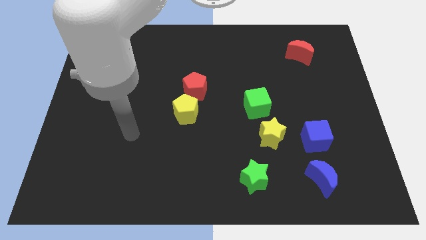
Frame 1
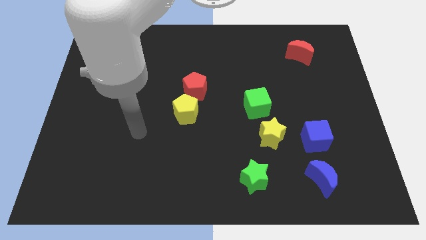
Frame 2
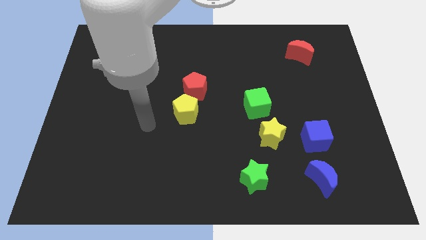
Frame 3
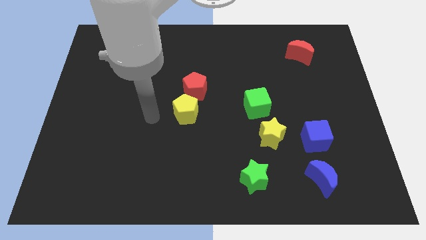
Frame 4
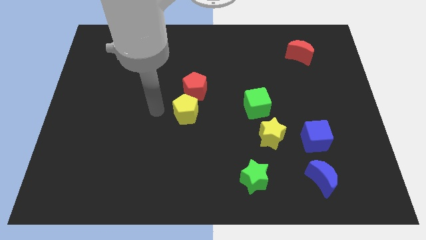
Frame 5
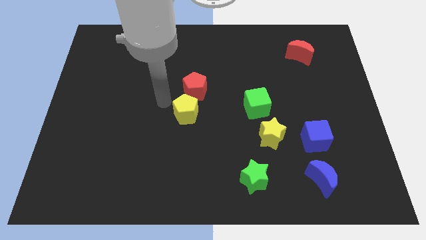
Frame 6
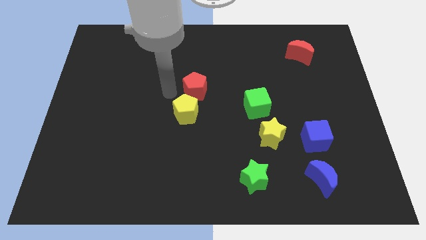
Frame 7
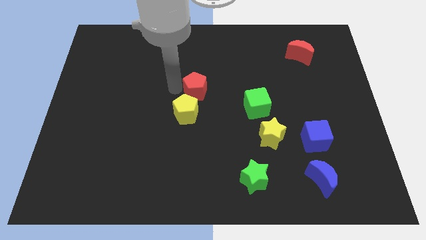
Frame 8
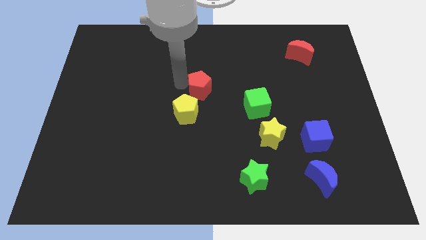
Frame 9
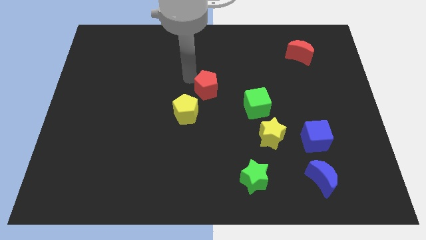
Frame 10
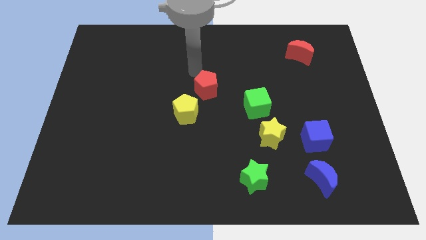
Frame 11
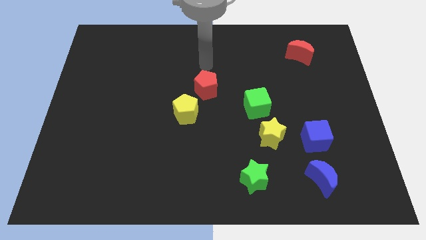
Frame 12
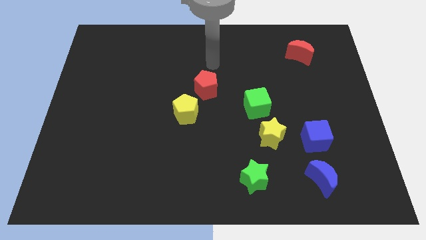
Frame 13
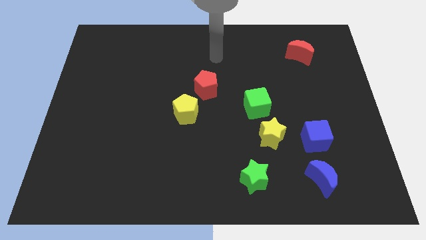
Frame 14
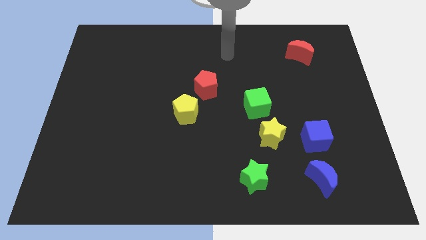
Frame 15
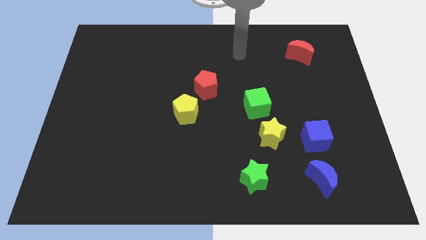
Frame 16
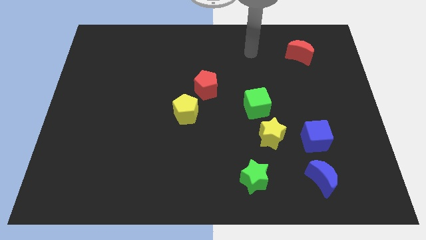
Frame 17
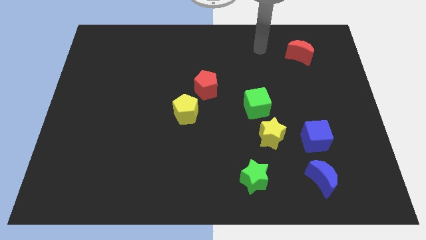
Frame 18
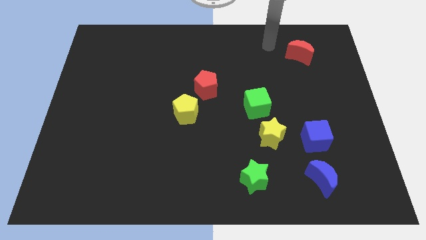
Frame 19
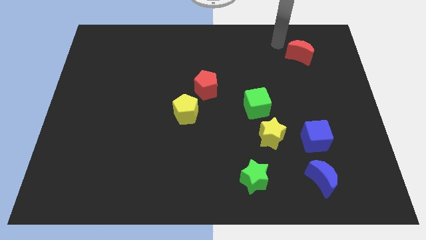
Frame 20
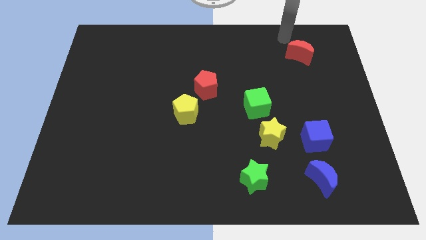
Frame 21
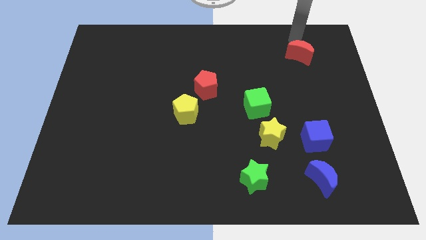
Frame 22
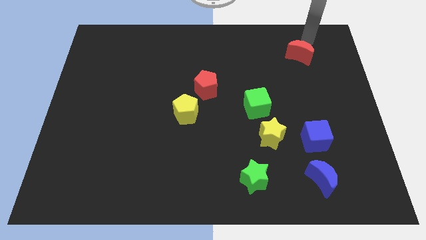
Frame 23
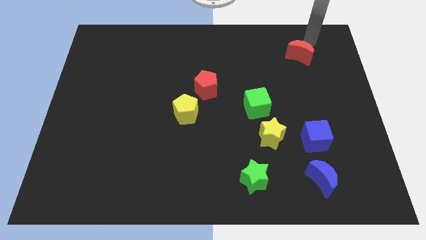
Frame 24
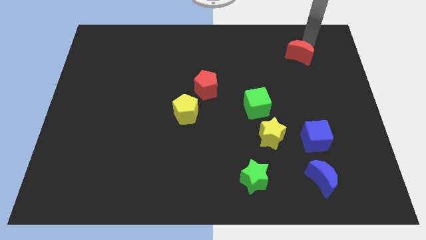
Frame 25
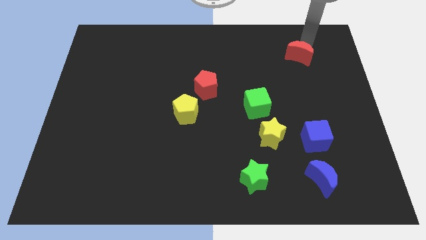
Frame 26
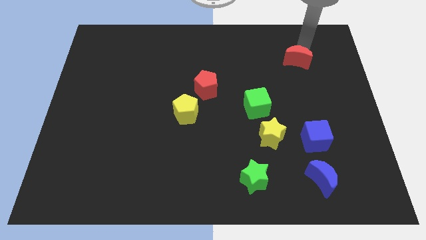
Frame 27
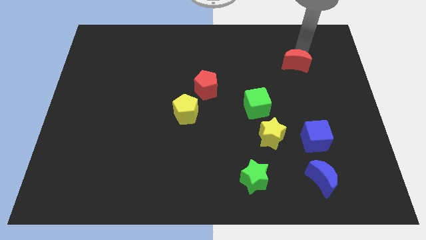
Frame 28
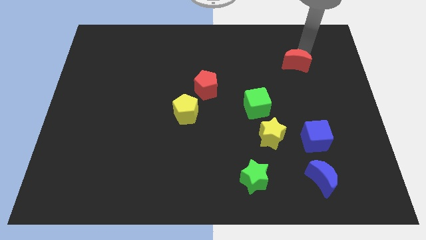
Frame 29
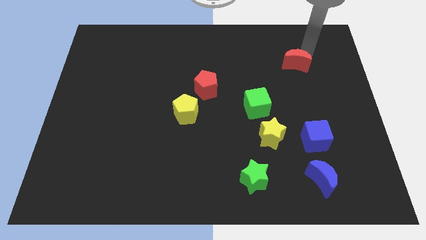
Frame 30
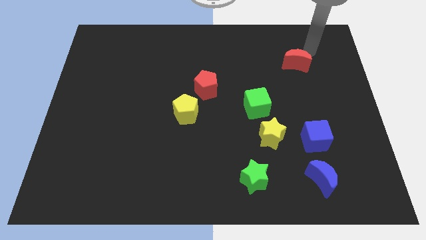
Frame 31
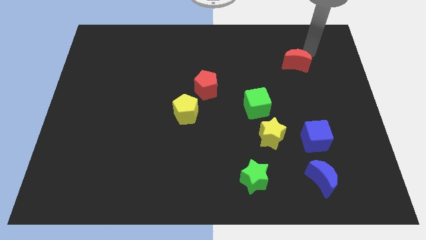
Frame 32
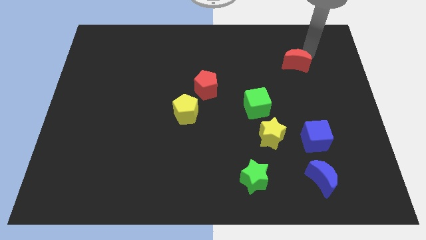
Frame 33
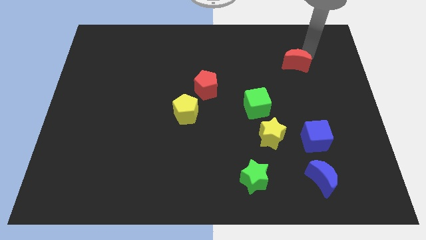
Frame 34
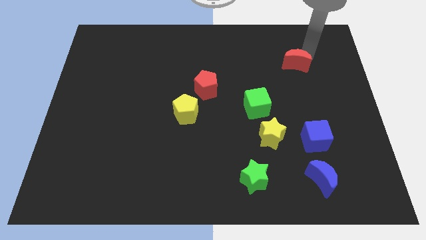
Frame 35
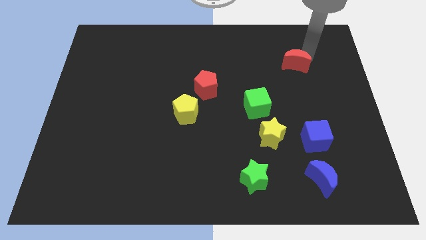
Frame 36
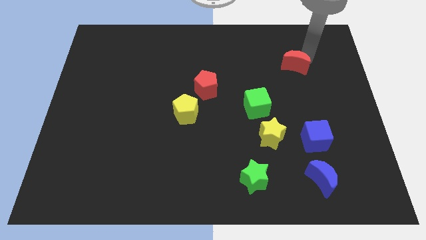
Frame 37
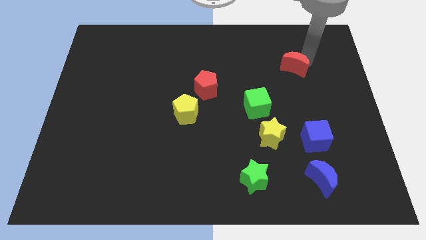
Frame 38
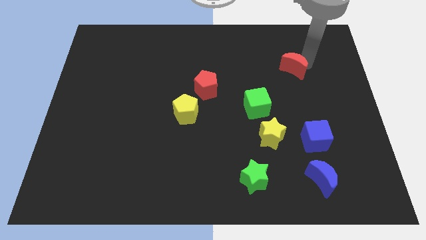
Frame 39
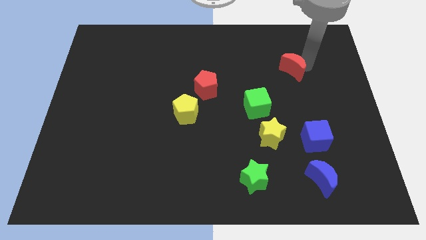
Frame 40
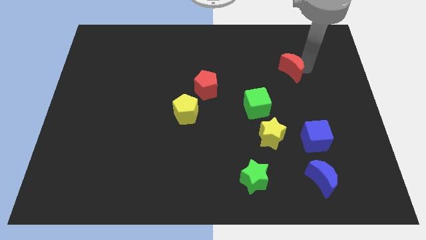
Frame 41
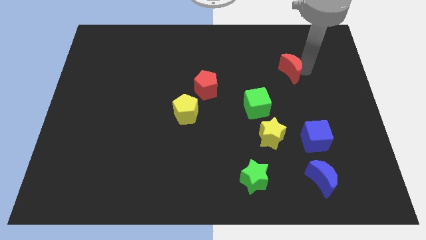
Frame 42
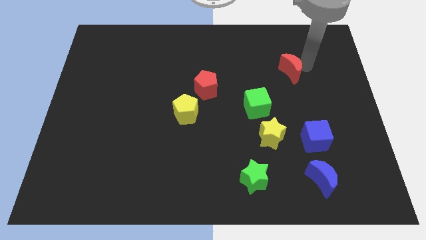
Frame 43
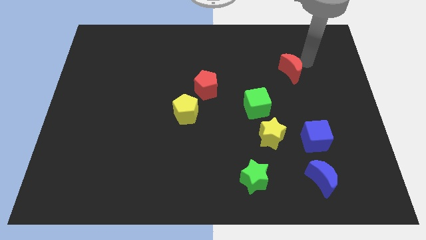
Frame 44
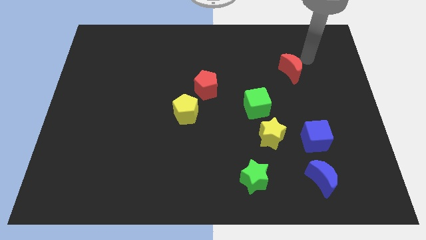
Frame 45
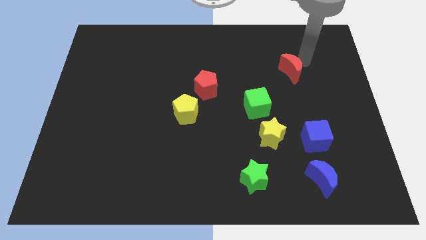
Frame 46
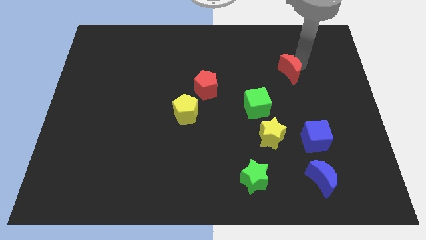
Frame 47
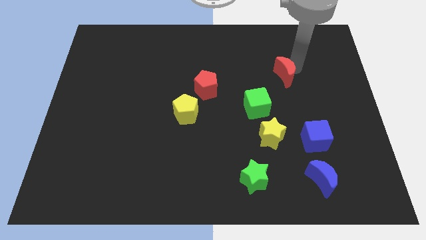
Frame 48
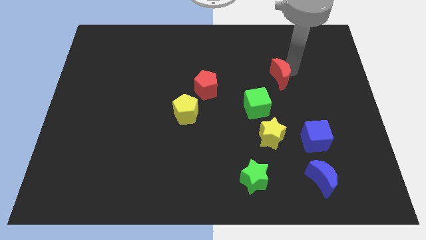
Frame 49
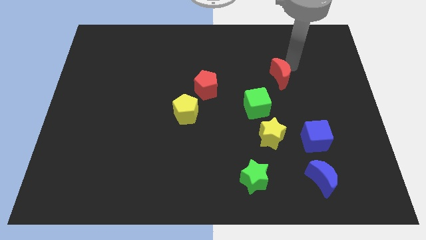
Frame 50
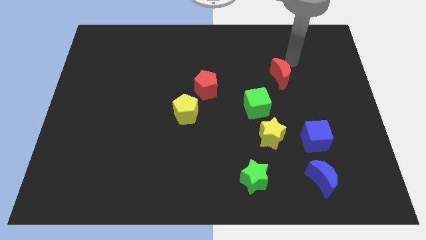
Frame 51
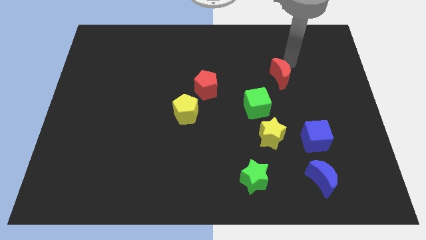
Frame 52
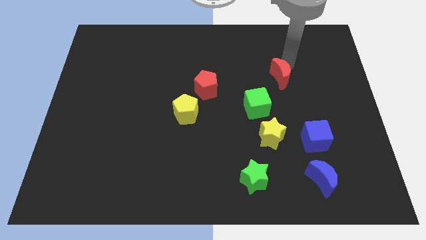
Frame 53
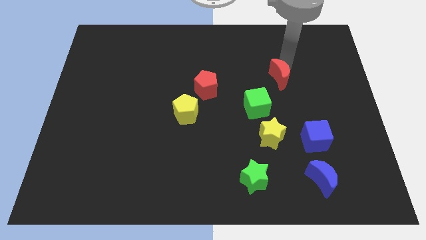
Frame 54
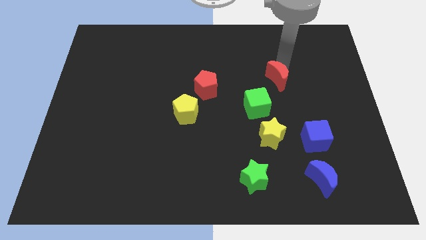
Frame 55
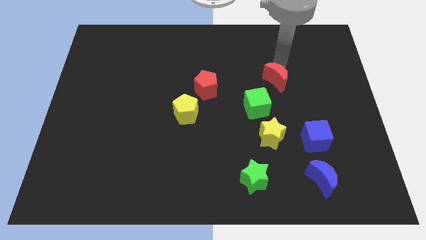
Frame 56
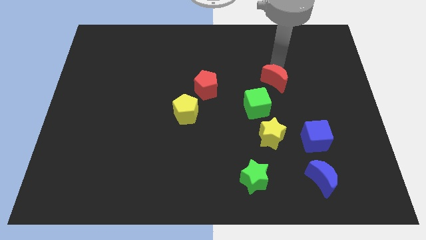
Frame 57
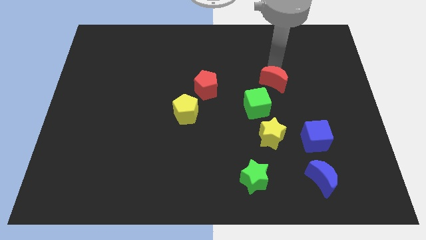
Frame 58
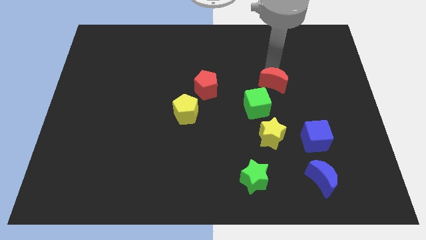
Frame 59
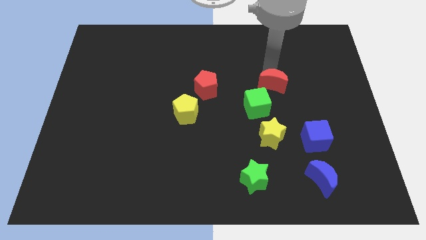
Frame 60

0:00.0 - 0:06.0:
move the red moon to the top of the yellow star

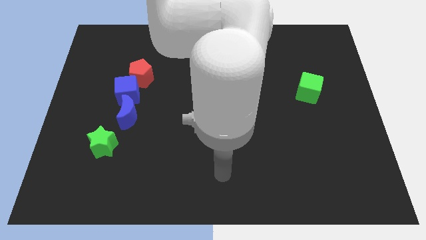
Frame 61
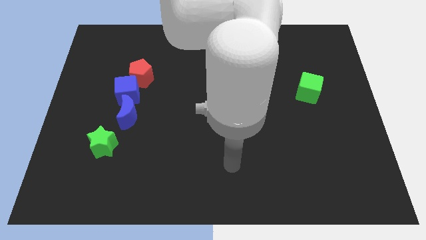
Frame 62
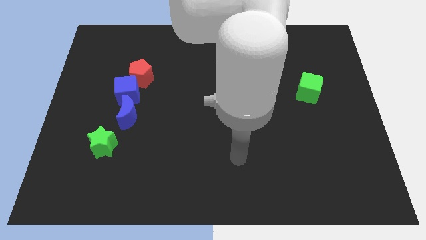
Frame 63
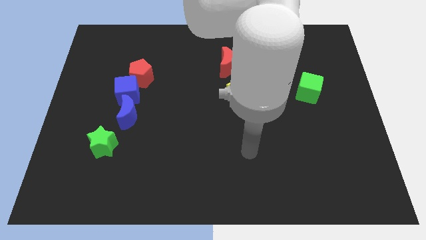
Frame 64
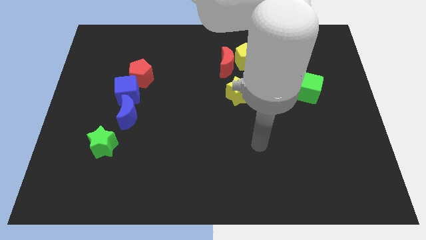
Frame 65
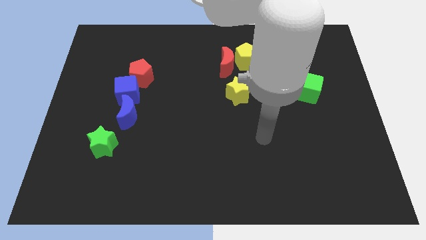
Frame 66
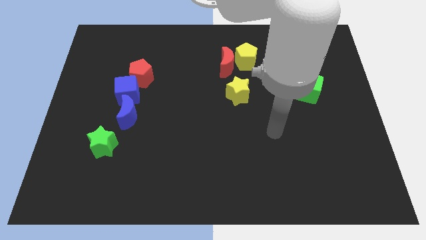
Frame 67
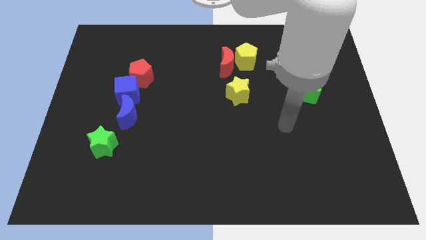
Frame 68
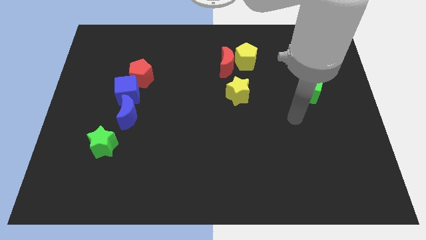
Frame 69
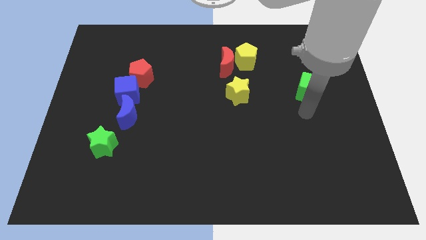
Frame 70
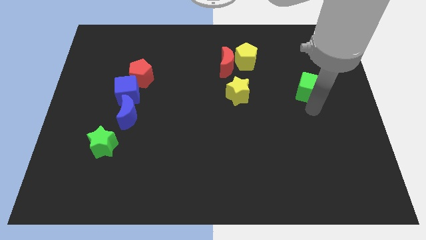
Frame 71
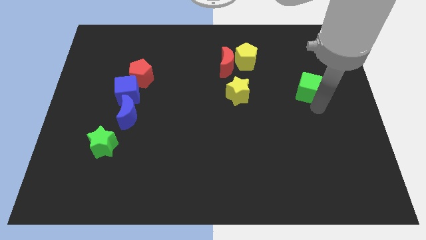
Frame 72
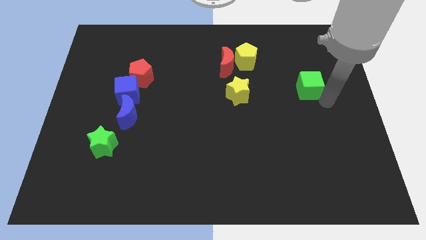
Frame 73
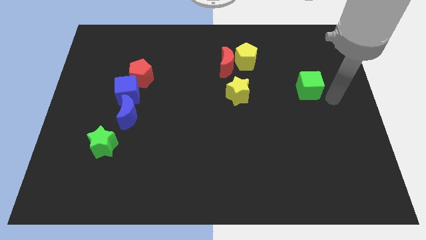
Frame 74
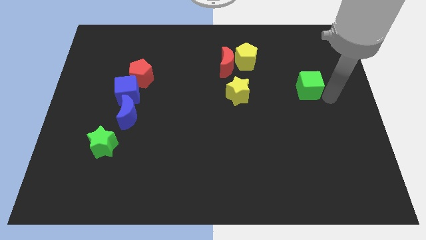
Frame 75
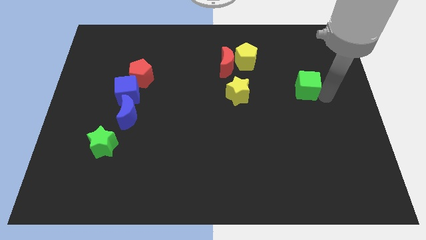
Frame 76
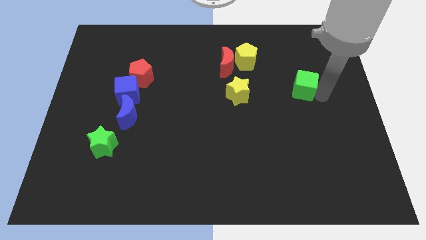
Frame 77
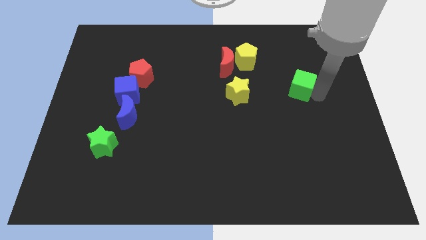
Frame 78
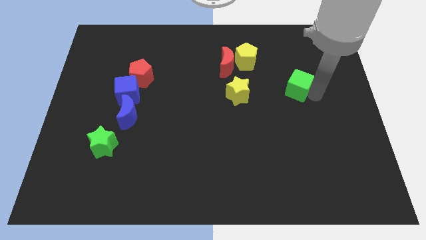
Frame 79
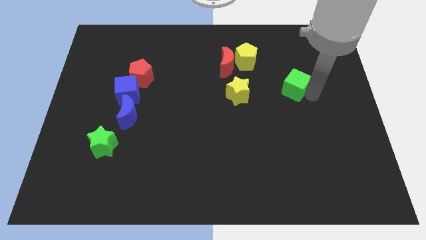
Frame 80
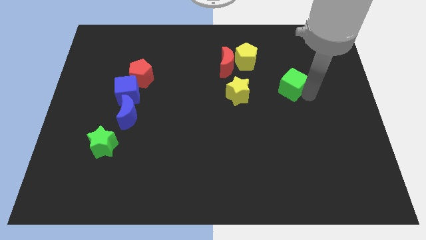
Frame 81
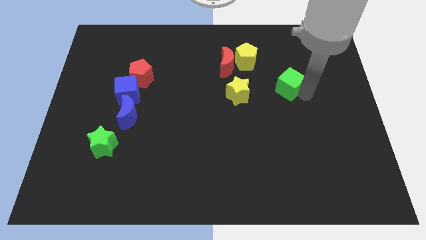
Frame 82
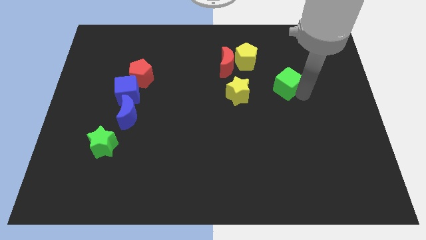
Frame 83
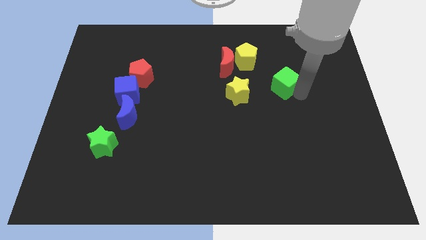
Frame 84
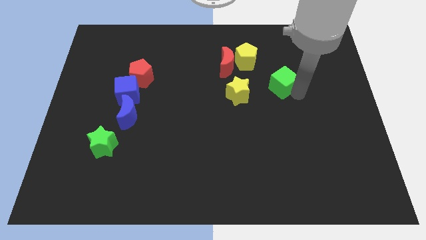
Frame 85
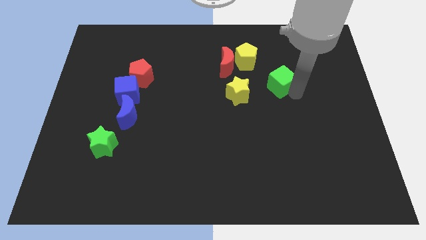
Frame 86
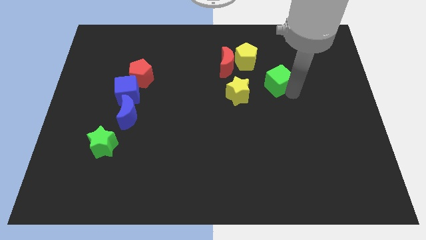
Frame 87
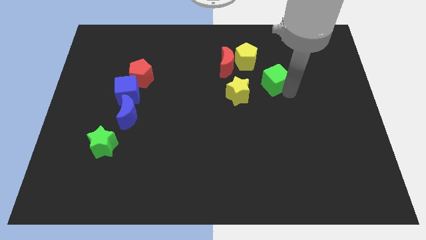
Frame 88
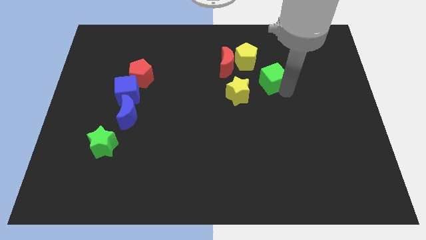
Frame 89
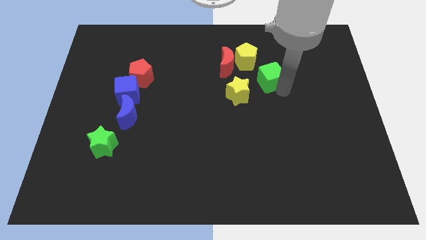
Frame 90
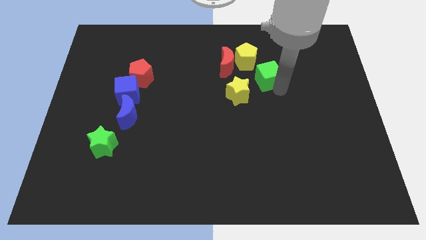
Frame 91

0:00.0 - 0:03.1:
slide the green cube right of the red moon
